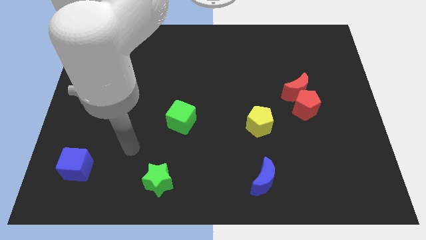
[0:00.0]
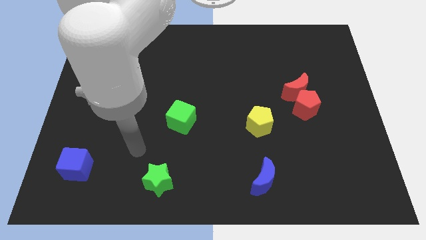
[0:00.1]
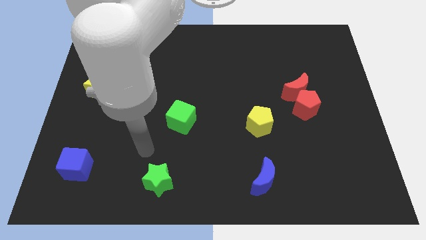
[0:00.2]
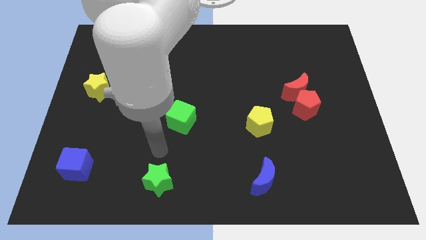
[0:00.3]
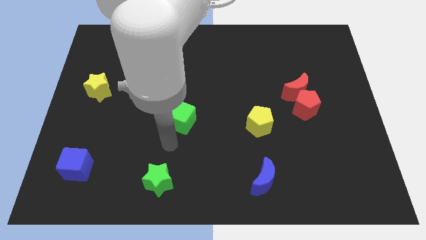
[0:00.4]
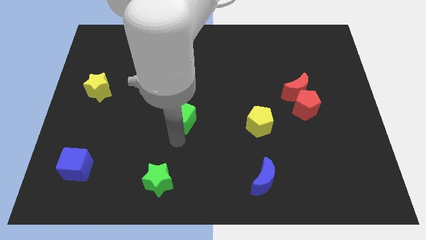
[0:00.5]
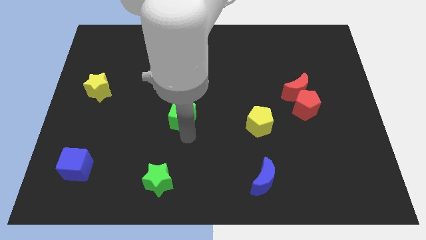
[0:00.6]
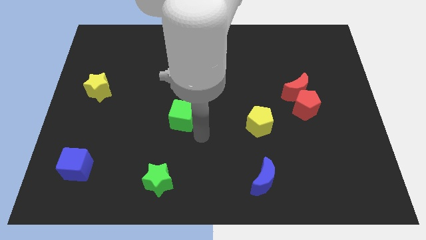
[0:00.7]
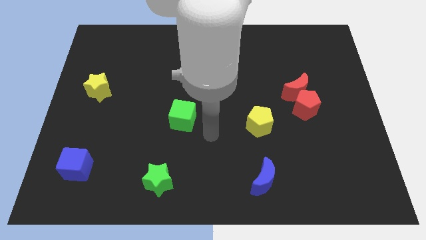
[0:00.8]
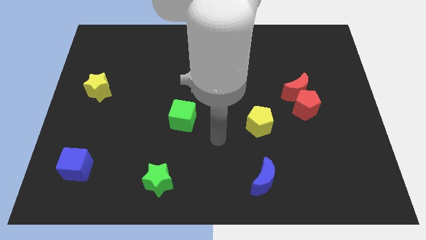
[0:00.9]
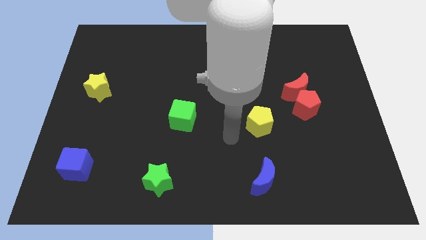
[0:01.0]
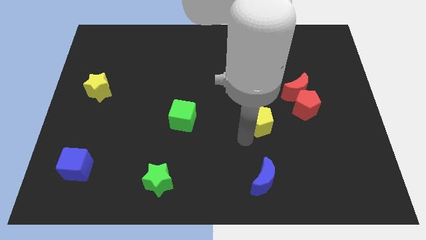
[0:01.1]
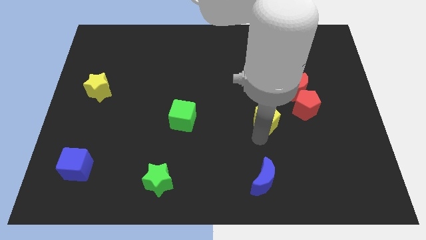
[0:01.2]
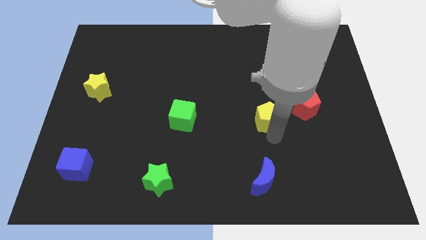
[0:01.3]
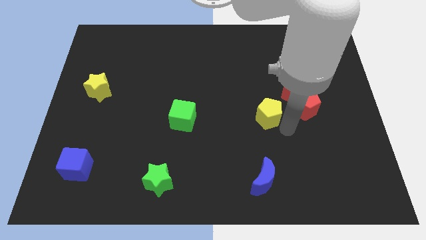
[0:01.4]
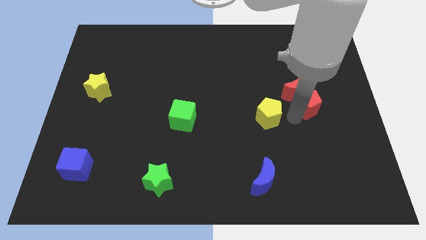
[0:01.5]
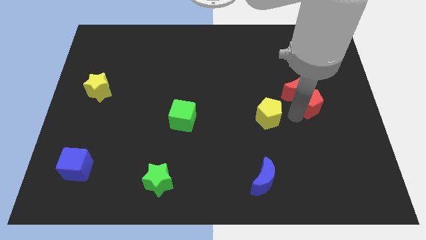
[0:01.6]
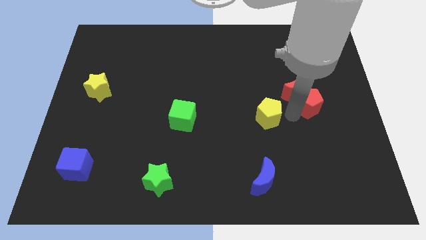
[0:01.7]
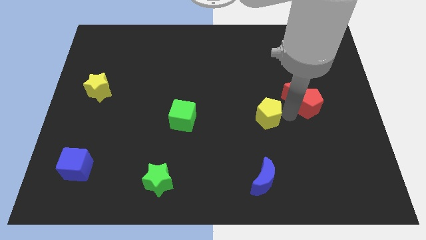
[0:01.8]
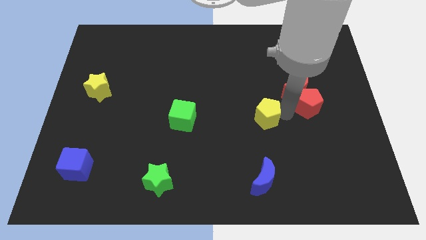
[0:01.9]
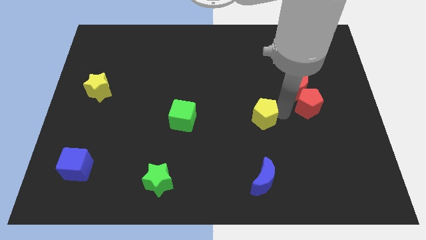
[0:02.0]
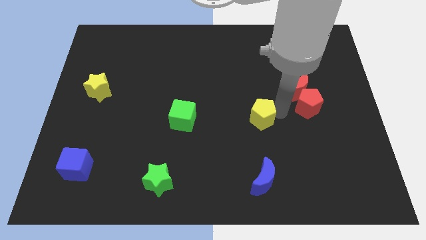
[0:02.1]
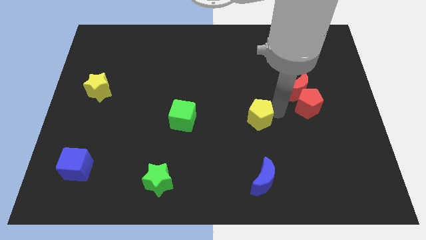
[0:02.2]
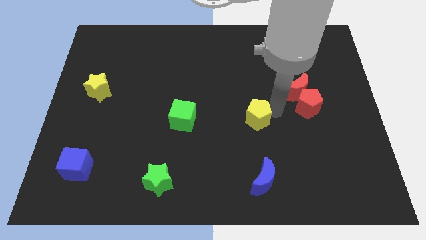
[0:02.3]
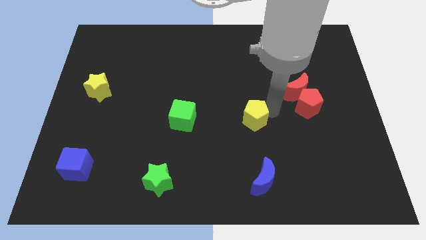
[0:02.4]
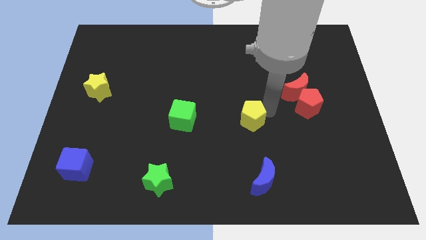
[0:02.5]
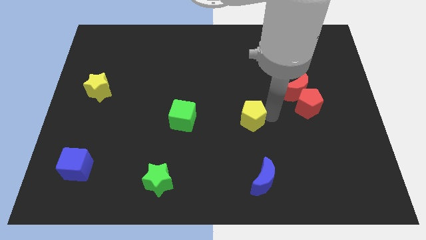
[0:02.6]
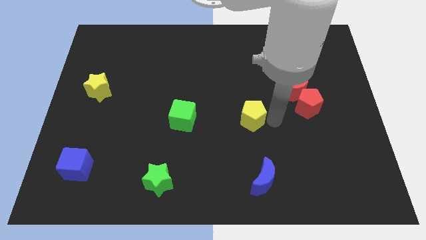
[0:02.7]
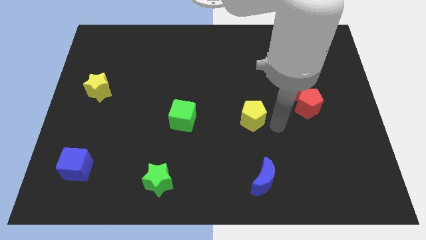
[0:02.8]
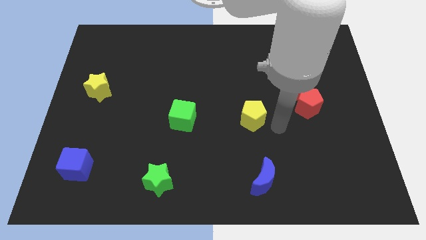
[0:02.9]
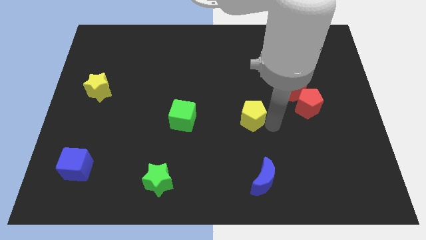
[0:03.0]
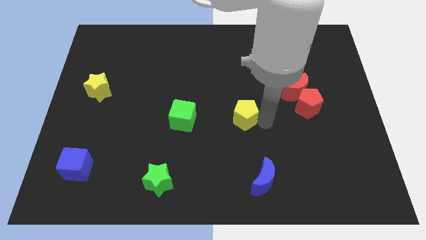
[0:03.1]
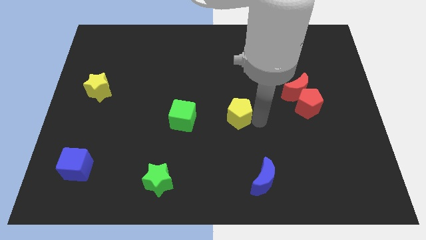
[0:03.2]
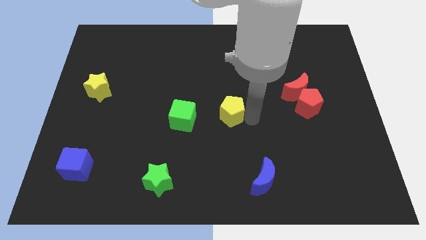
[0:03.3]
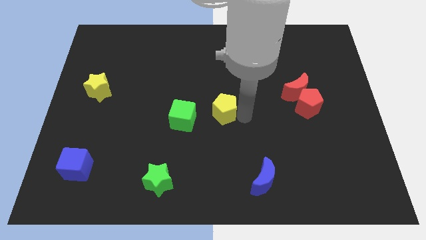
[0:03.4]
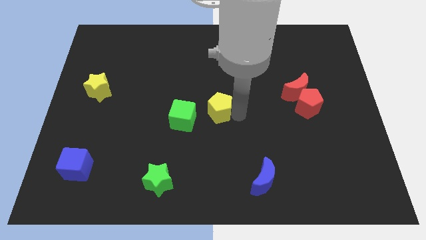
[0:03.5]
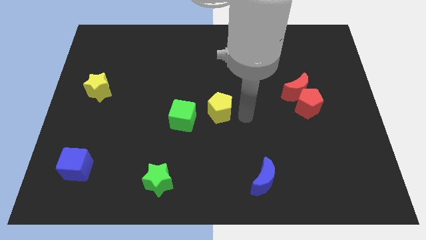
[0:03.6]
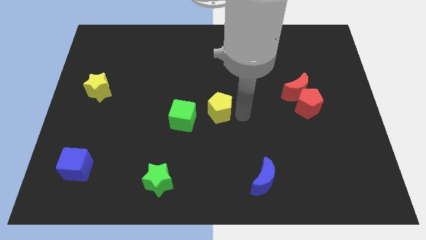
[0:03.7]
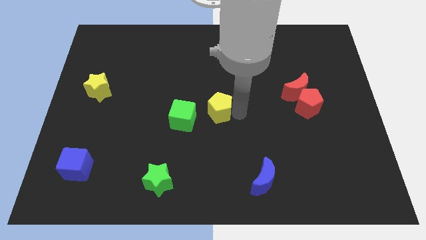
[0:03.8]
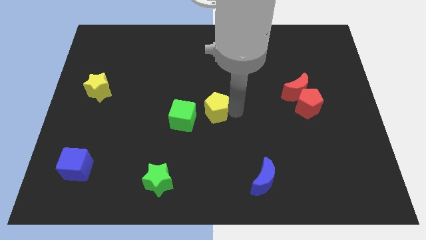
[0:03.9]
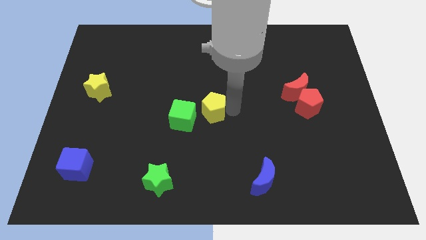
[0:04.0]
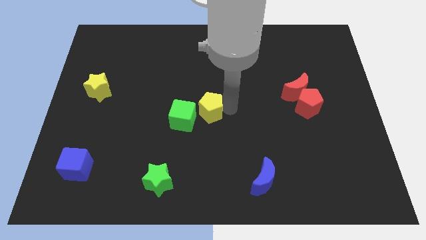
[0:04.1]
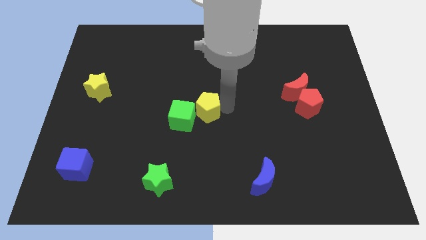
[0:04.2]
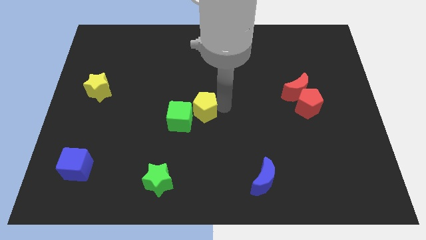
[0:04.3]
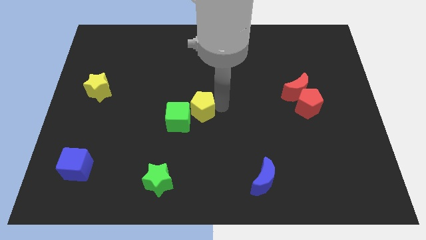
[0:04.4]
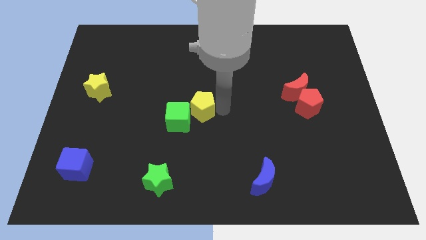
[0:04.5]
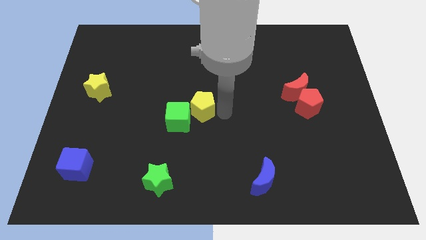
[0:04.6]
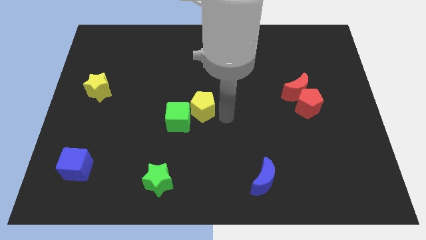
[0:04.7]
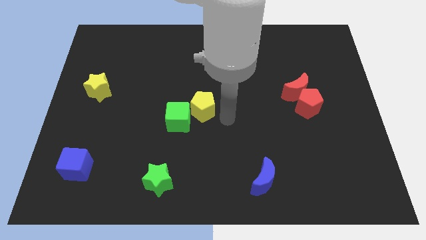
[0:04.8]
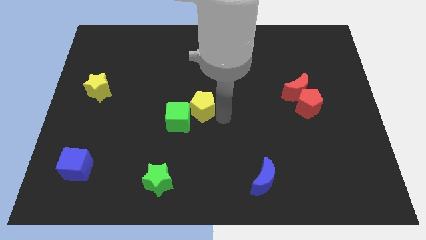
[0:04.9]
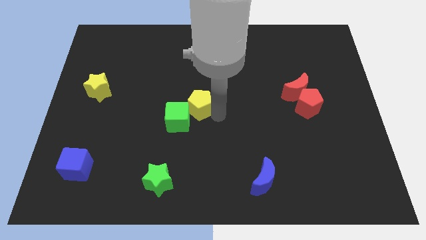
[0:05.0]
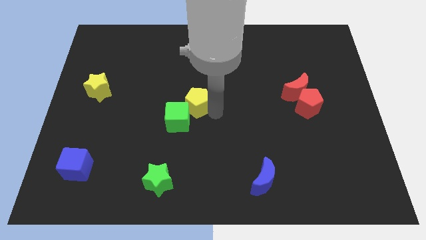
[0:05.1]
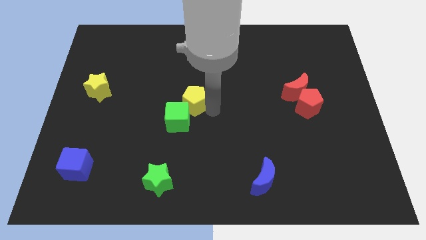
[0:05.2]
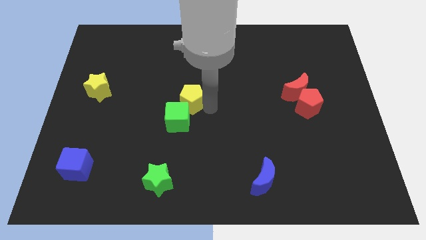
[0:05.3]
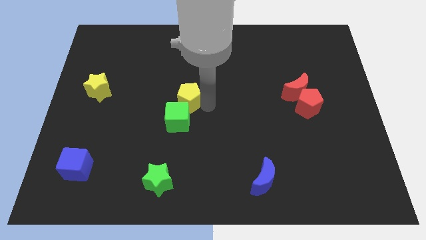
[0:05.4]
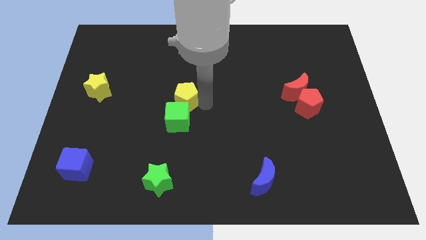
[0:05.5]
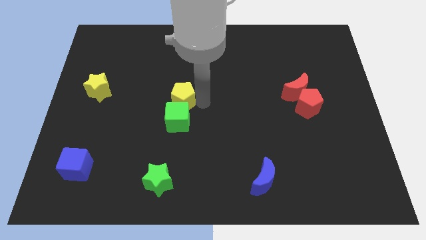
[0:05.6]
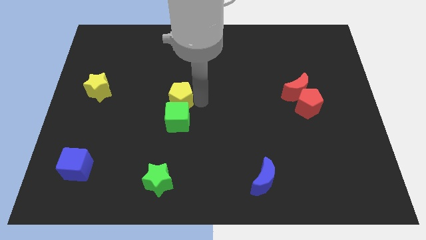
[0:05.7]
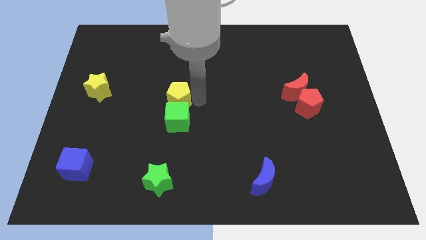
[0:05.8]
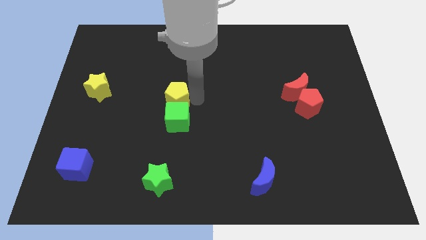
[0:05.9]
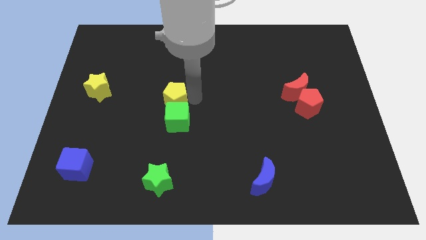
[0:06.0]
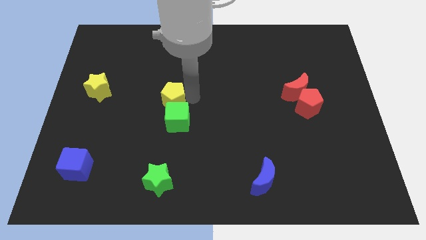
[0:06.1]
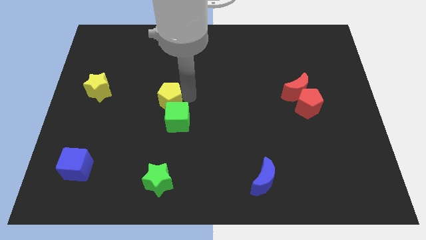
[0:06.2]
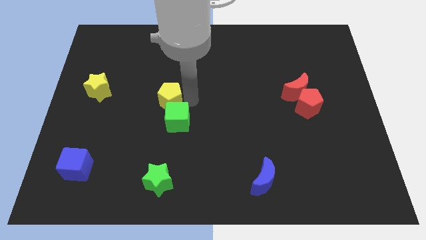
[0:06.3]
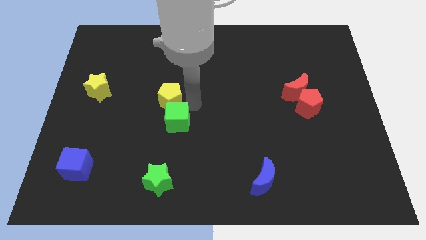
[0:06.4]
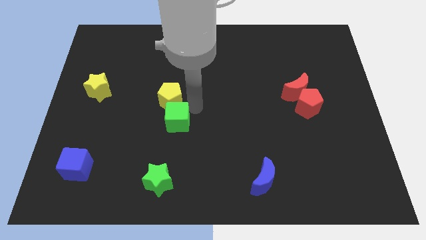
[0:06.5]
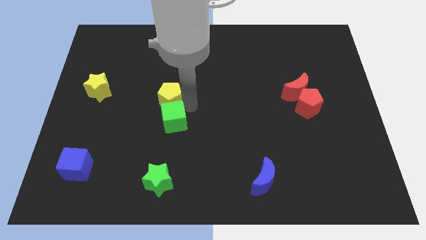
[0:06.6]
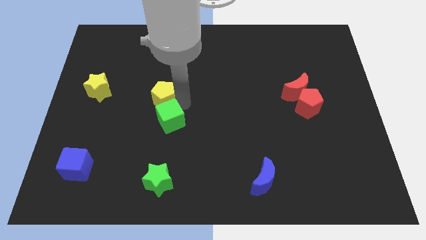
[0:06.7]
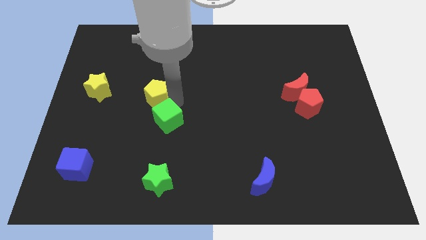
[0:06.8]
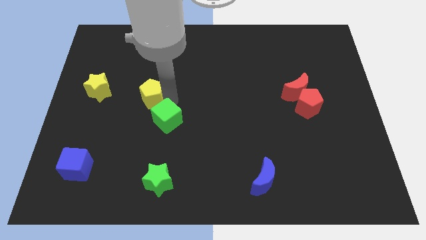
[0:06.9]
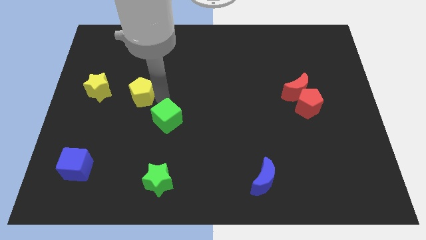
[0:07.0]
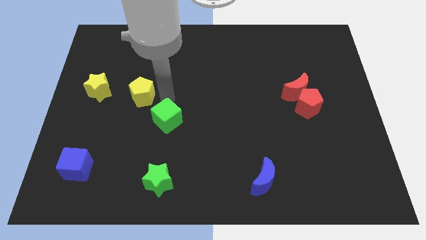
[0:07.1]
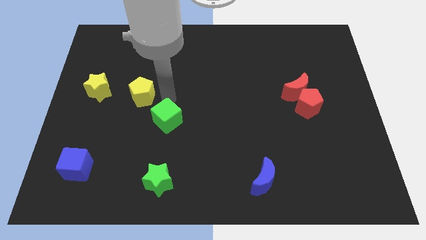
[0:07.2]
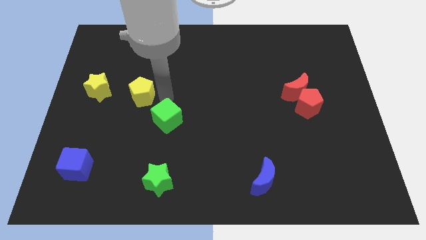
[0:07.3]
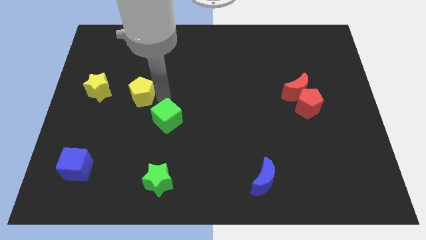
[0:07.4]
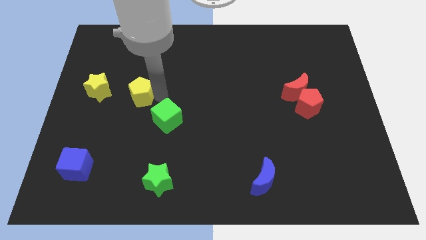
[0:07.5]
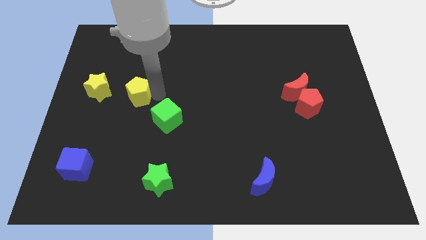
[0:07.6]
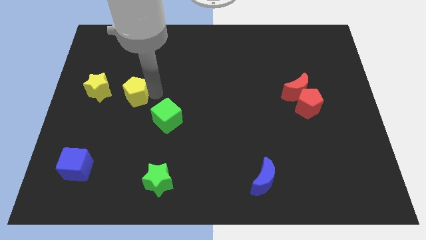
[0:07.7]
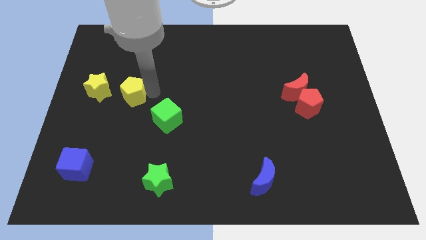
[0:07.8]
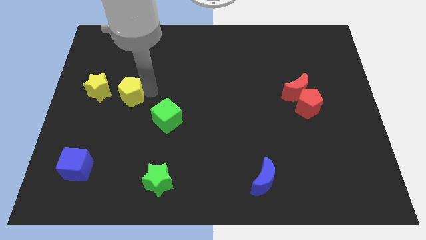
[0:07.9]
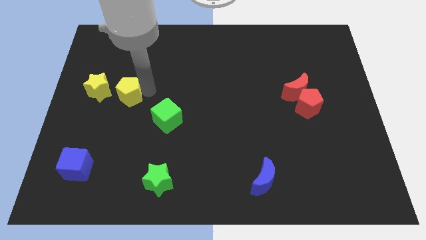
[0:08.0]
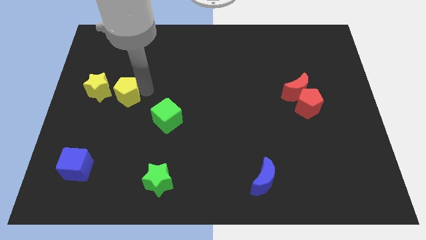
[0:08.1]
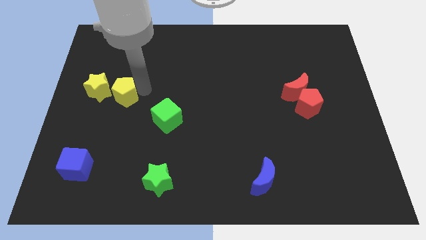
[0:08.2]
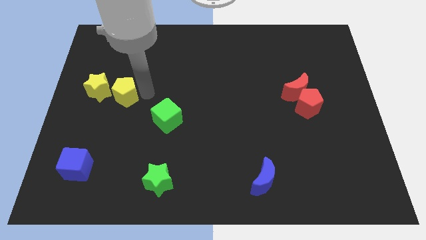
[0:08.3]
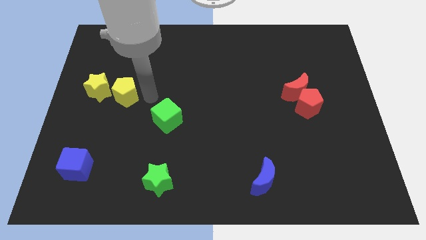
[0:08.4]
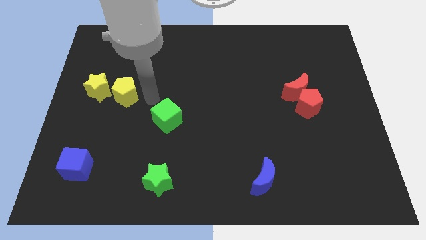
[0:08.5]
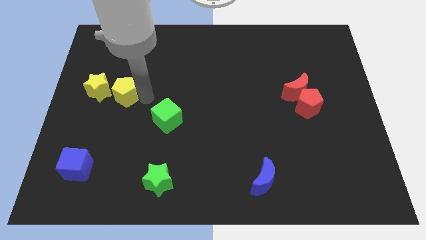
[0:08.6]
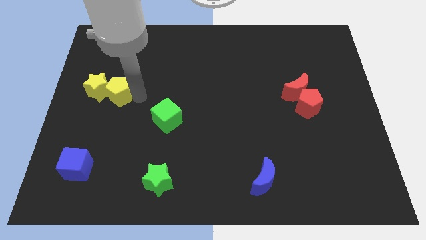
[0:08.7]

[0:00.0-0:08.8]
slide the yellow pentagon to the yellow star
